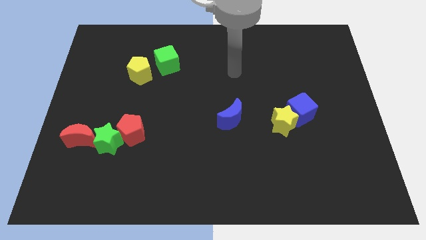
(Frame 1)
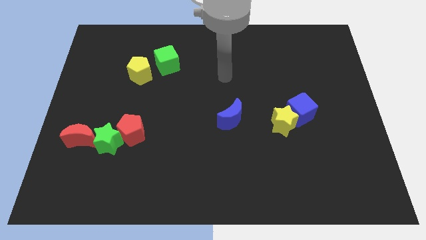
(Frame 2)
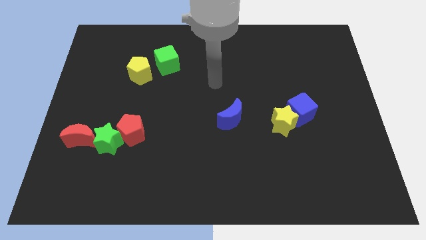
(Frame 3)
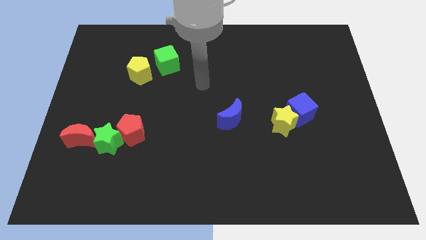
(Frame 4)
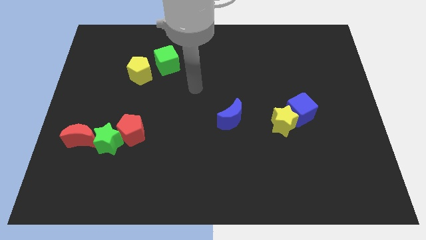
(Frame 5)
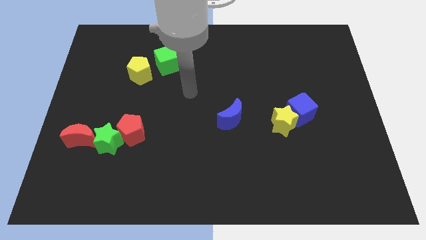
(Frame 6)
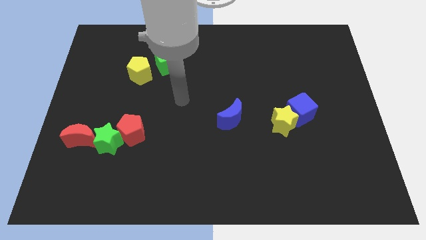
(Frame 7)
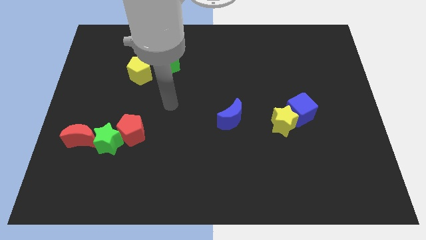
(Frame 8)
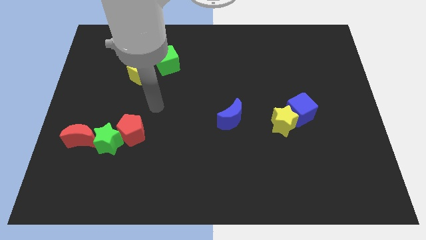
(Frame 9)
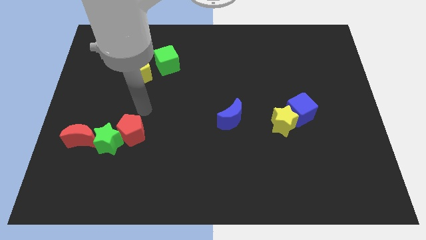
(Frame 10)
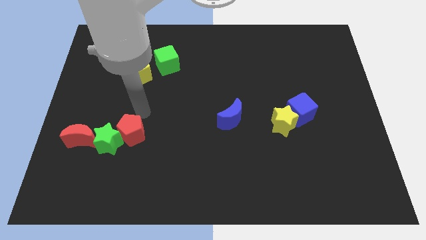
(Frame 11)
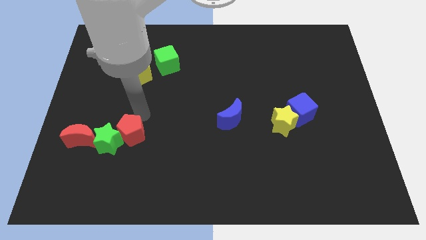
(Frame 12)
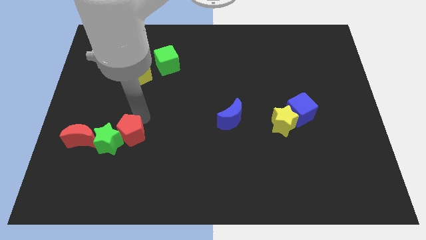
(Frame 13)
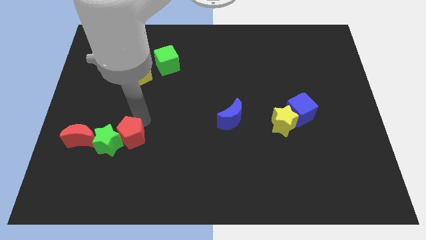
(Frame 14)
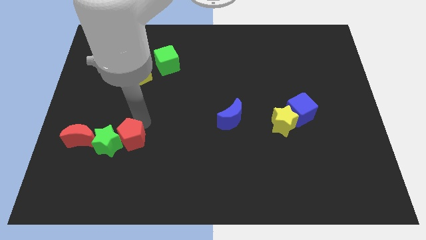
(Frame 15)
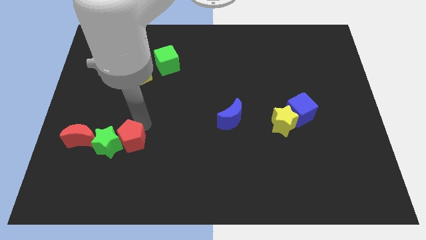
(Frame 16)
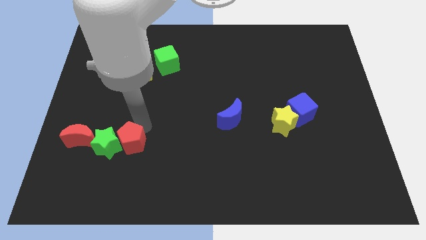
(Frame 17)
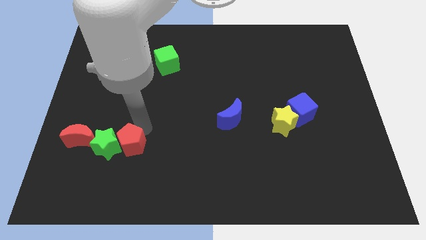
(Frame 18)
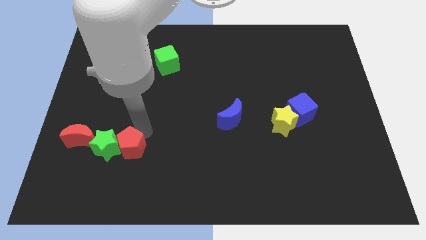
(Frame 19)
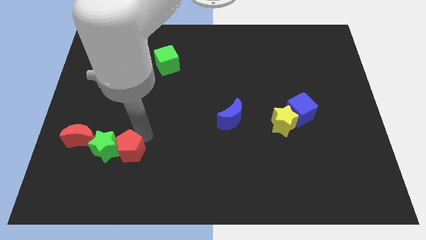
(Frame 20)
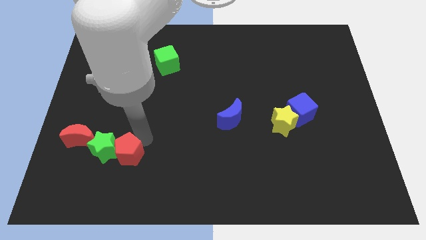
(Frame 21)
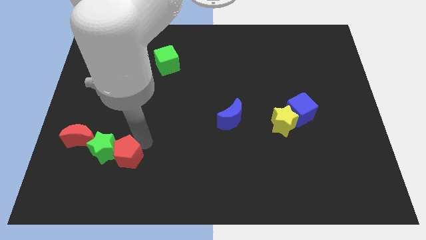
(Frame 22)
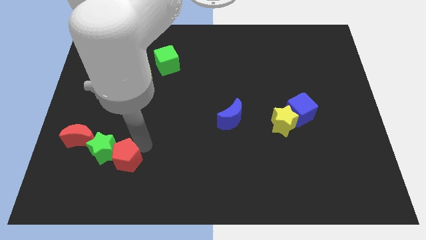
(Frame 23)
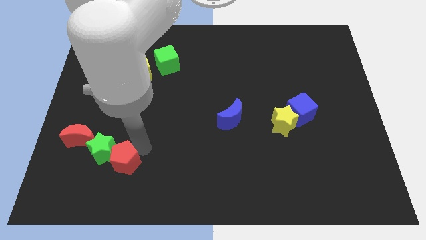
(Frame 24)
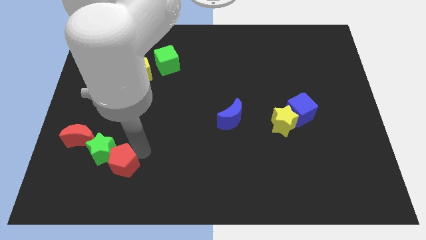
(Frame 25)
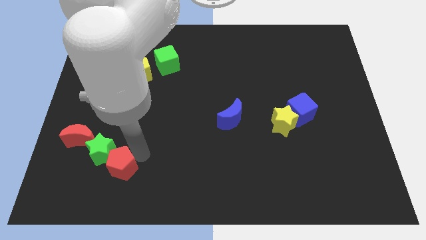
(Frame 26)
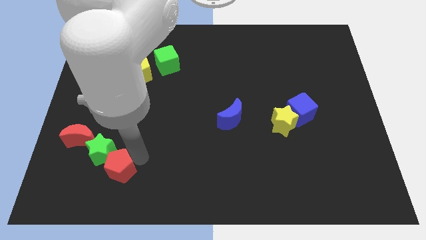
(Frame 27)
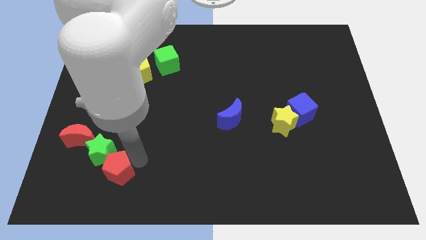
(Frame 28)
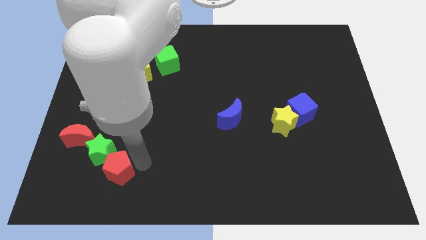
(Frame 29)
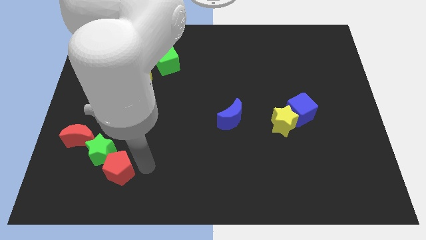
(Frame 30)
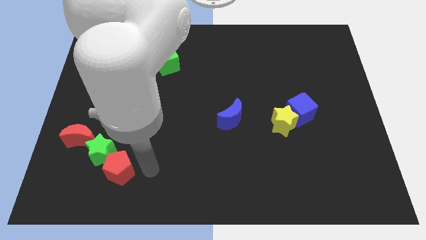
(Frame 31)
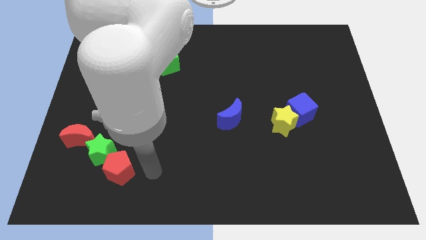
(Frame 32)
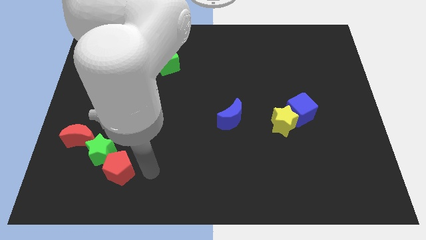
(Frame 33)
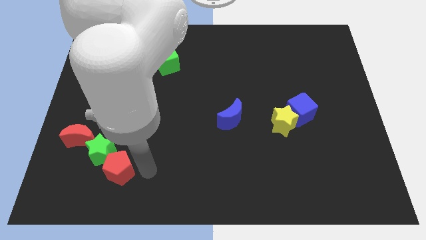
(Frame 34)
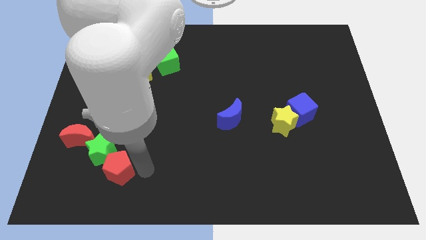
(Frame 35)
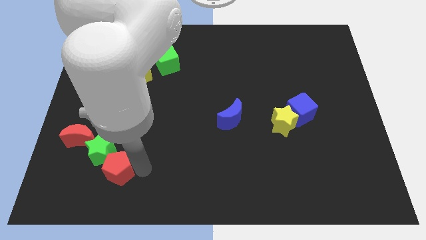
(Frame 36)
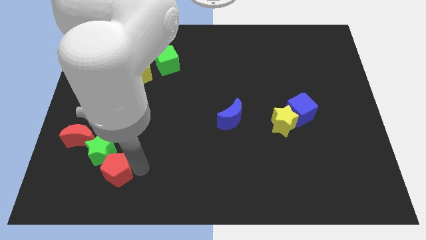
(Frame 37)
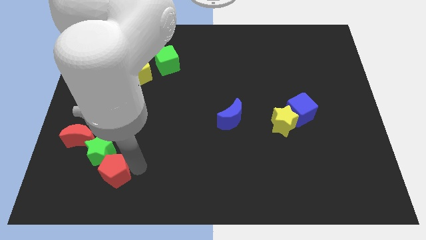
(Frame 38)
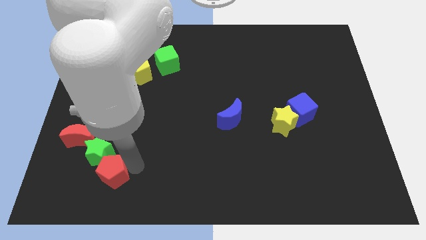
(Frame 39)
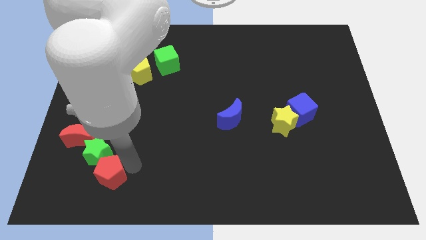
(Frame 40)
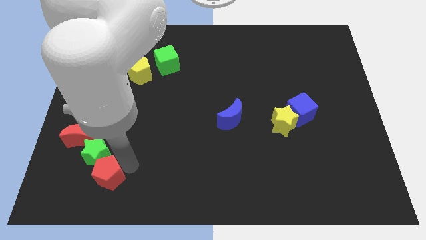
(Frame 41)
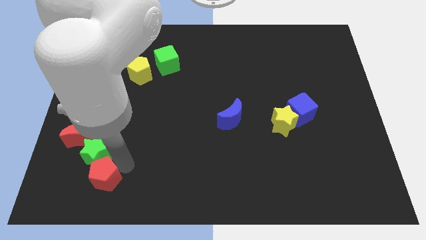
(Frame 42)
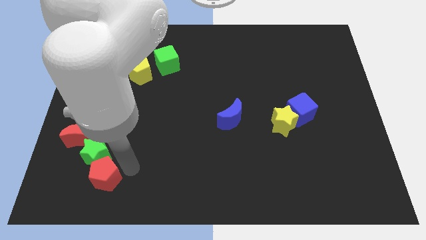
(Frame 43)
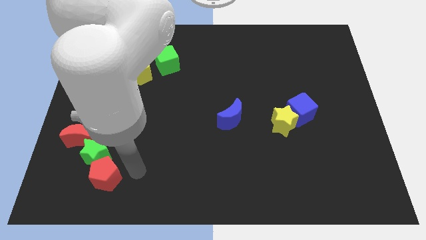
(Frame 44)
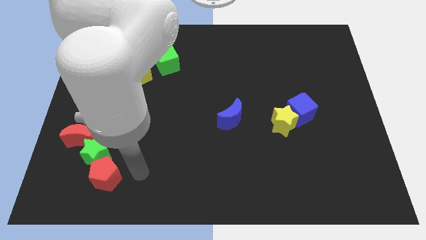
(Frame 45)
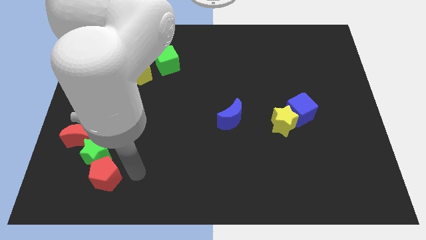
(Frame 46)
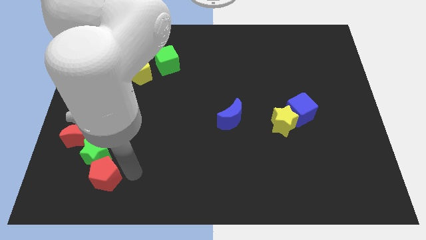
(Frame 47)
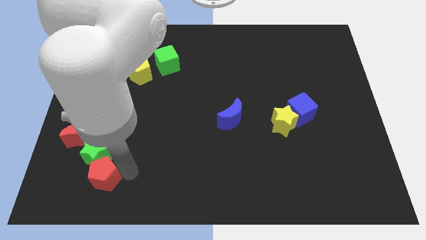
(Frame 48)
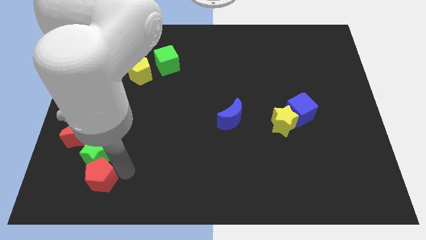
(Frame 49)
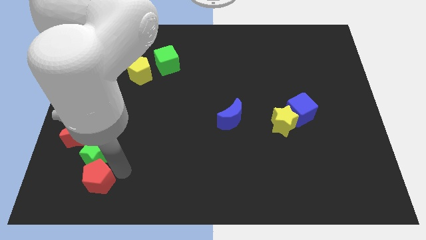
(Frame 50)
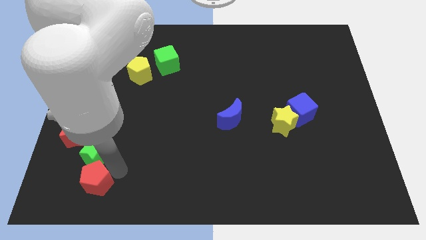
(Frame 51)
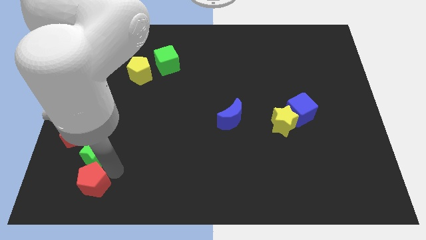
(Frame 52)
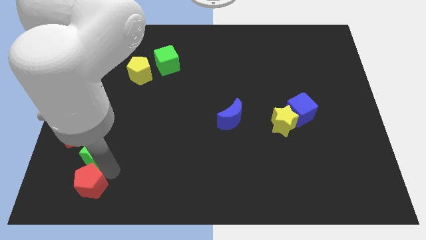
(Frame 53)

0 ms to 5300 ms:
slide the red pentagon below the red moon

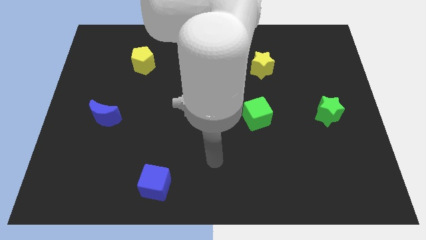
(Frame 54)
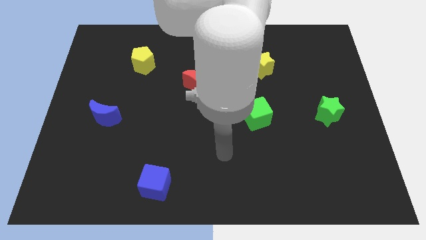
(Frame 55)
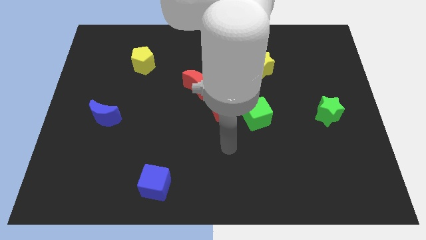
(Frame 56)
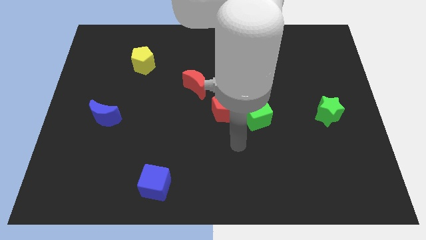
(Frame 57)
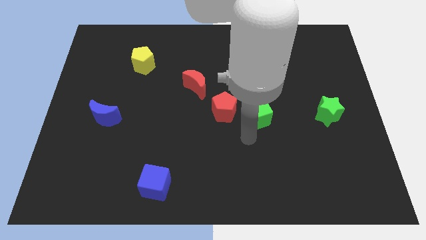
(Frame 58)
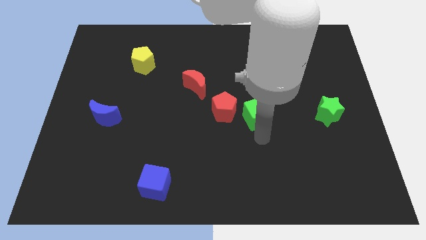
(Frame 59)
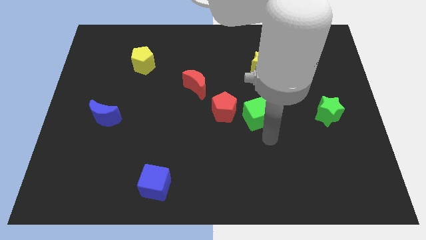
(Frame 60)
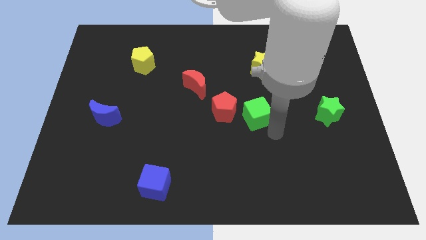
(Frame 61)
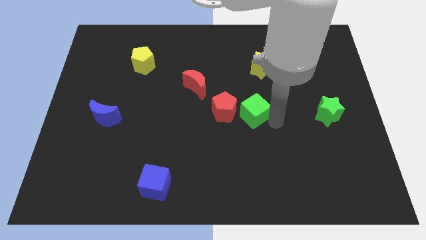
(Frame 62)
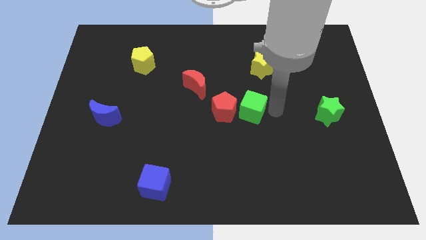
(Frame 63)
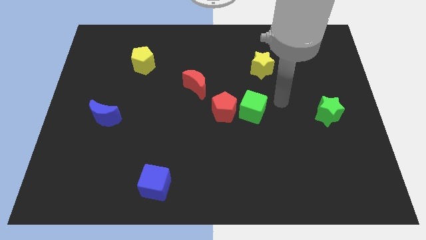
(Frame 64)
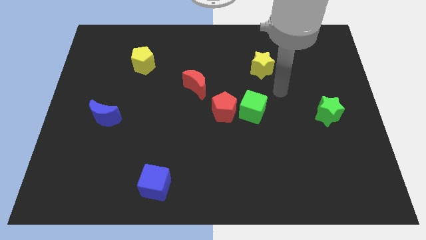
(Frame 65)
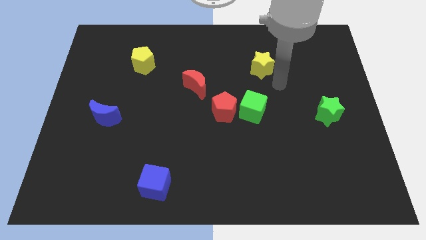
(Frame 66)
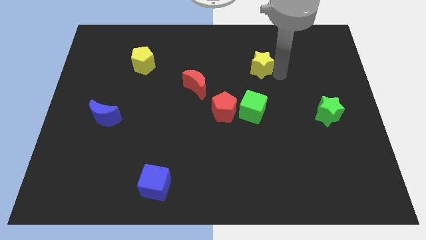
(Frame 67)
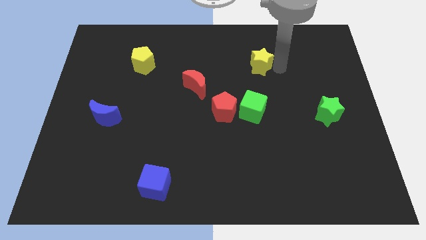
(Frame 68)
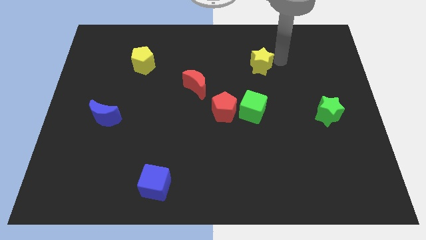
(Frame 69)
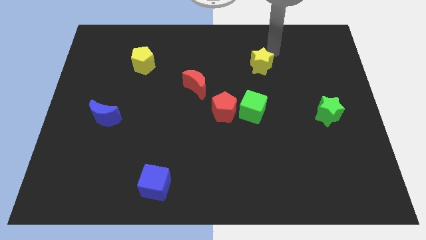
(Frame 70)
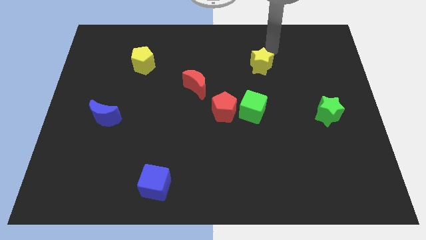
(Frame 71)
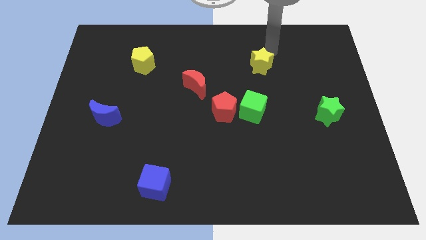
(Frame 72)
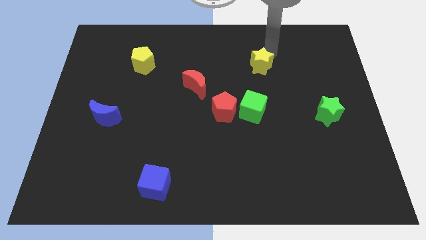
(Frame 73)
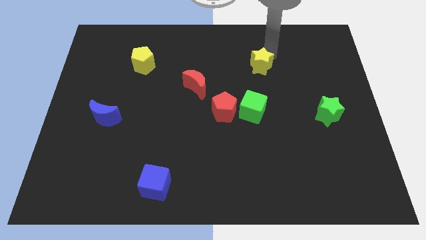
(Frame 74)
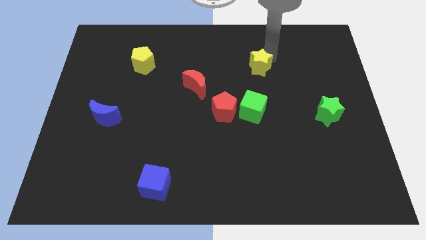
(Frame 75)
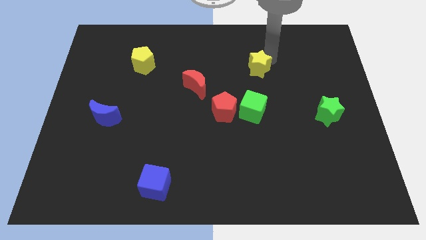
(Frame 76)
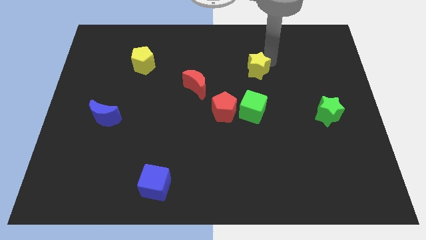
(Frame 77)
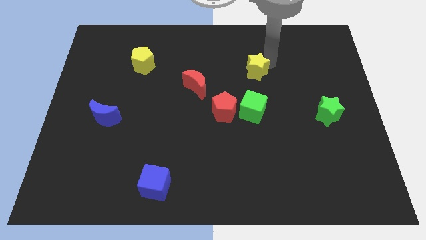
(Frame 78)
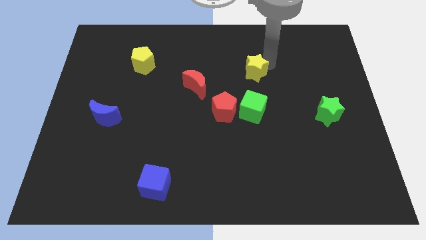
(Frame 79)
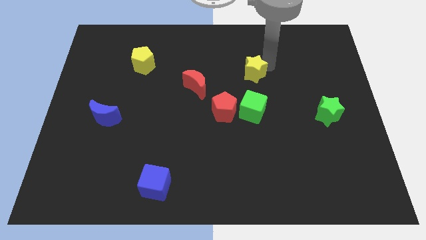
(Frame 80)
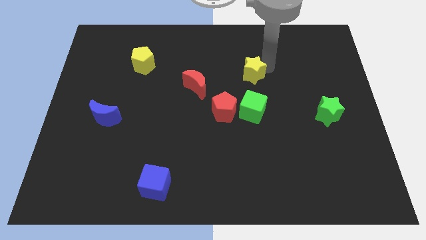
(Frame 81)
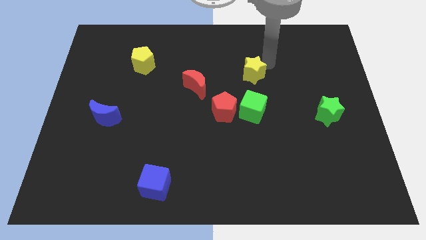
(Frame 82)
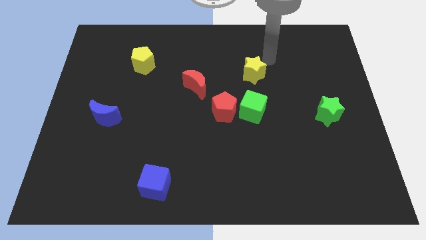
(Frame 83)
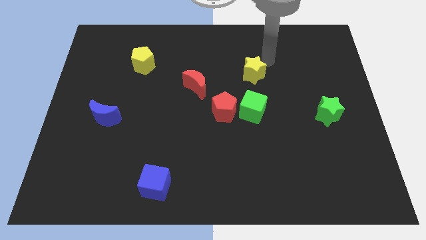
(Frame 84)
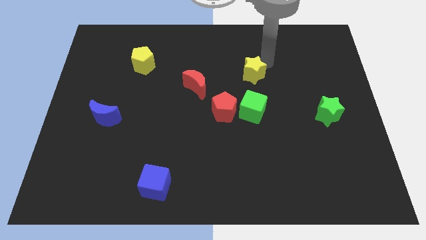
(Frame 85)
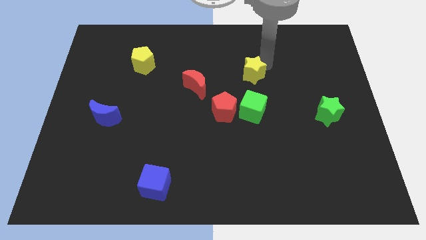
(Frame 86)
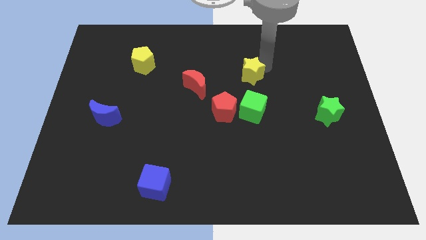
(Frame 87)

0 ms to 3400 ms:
slide the yellow star right of the red moon
